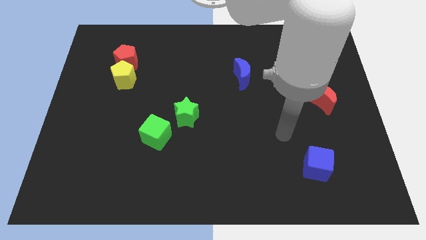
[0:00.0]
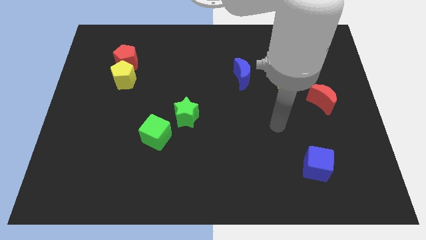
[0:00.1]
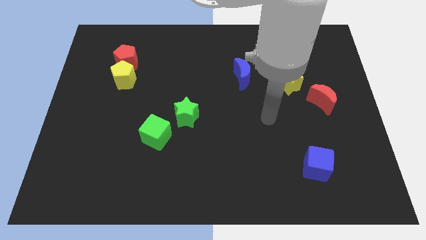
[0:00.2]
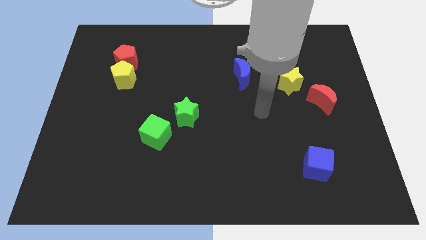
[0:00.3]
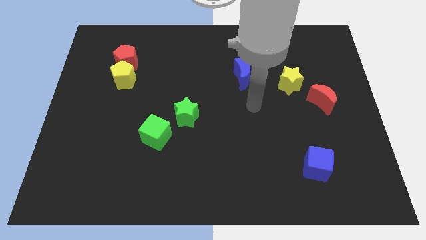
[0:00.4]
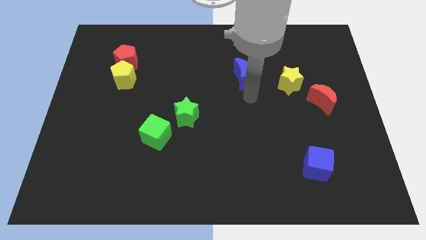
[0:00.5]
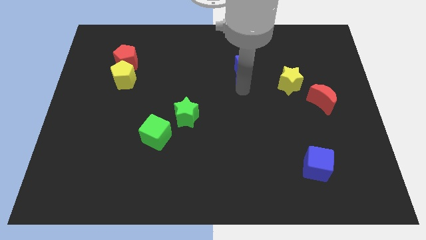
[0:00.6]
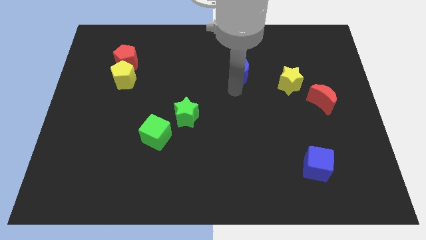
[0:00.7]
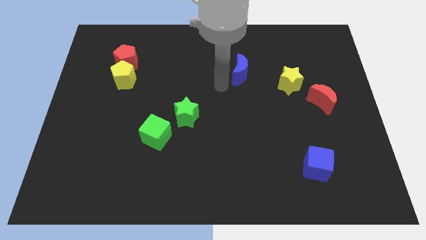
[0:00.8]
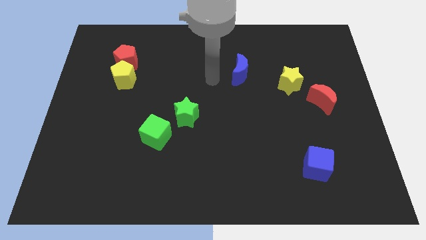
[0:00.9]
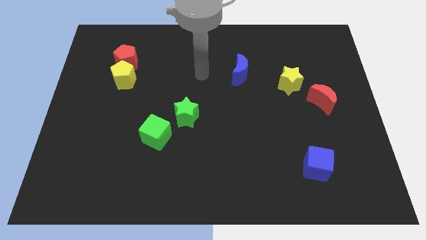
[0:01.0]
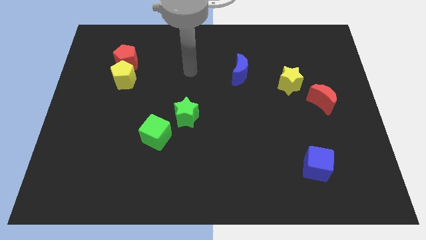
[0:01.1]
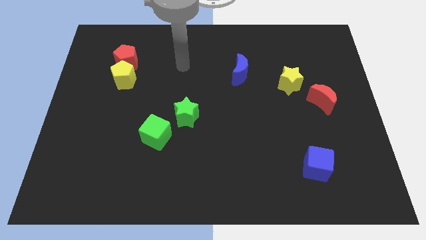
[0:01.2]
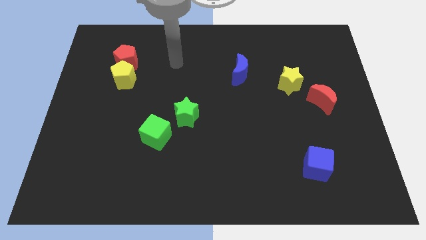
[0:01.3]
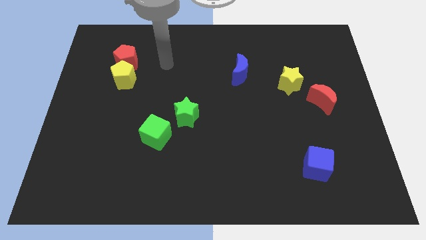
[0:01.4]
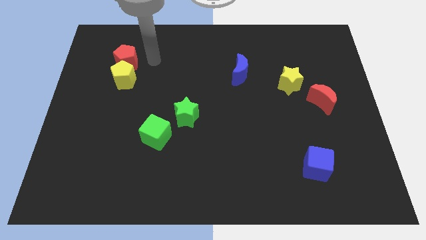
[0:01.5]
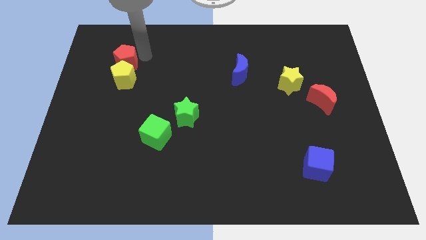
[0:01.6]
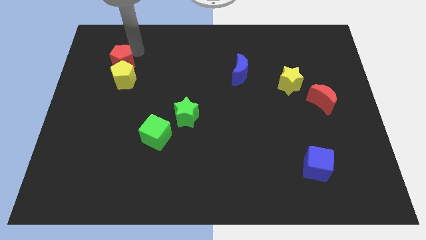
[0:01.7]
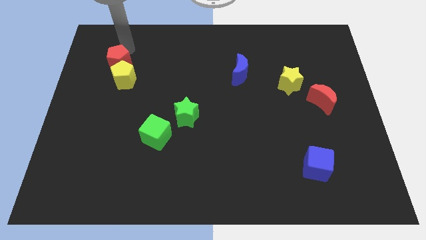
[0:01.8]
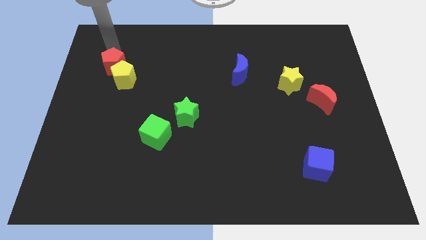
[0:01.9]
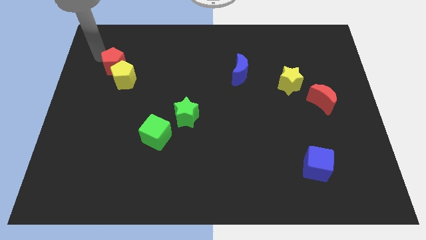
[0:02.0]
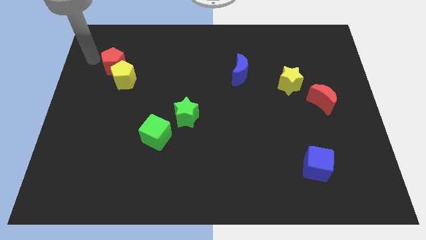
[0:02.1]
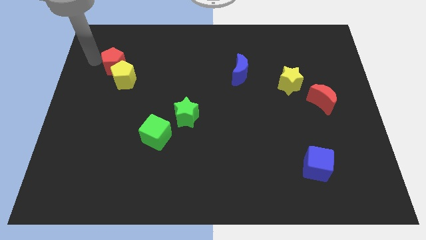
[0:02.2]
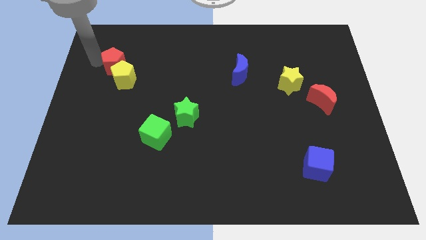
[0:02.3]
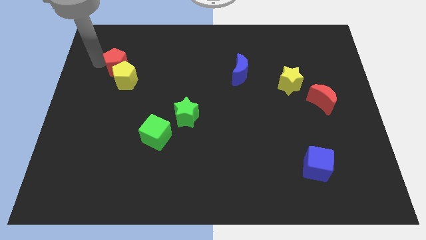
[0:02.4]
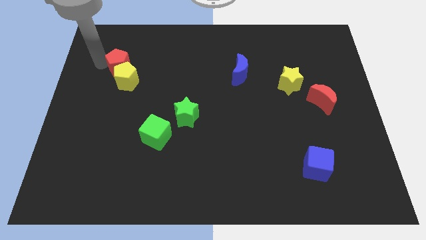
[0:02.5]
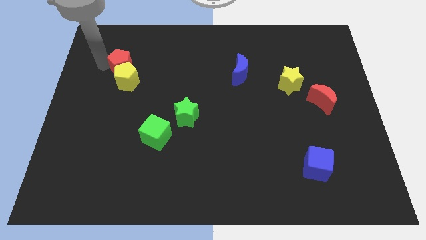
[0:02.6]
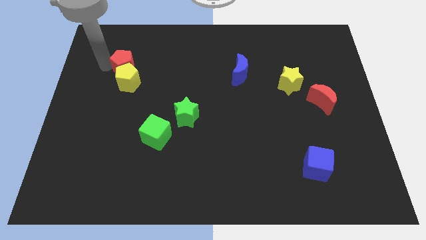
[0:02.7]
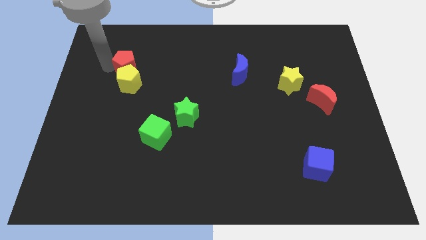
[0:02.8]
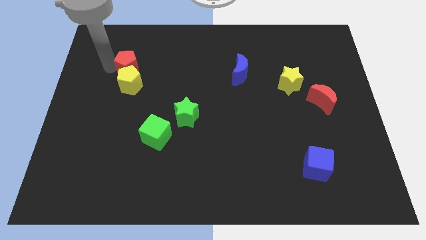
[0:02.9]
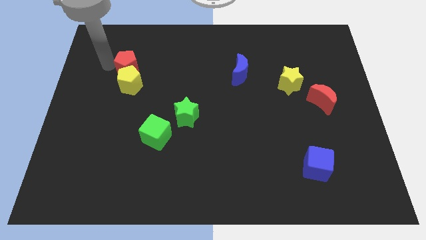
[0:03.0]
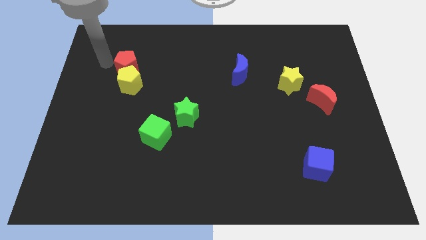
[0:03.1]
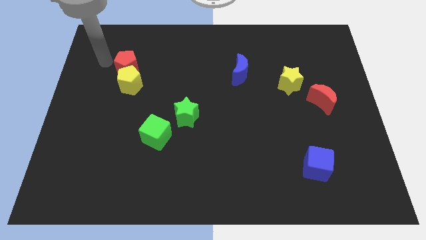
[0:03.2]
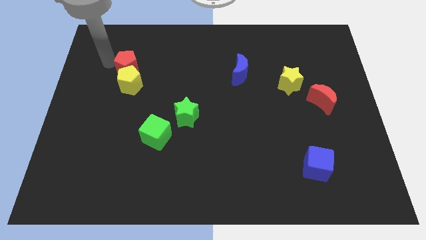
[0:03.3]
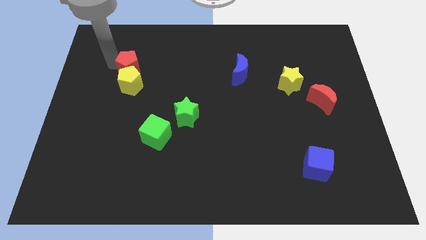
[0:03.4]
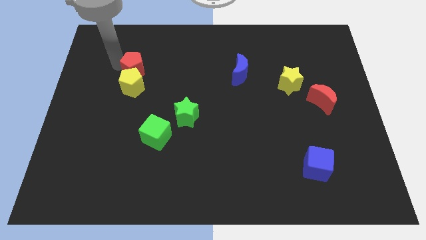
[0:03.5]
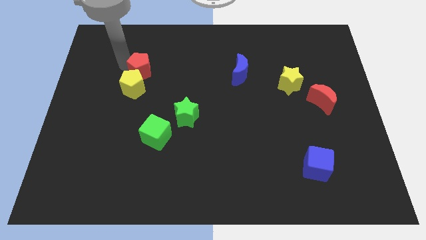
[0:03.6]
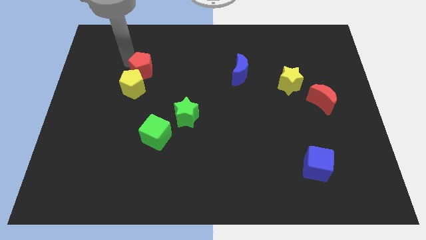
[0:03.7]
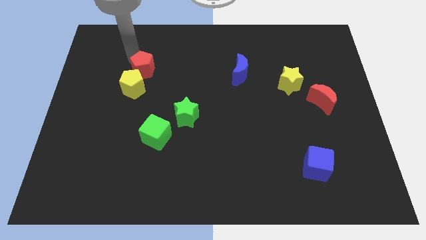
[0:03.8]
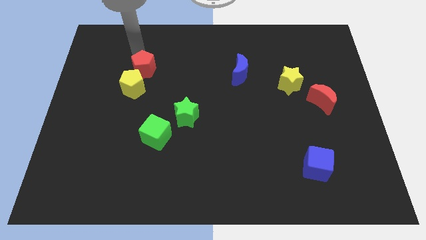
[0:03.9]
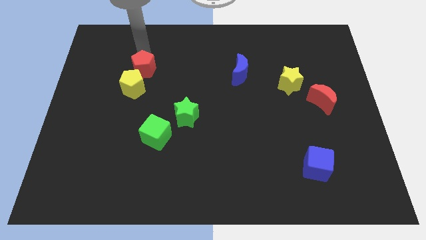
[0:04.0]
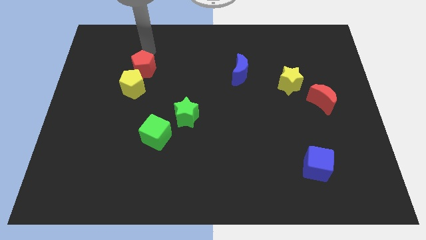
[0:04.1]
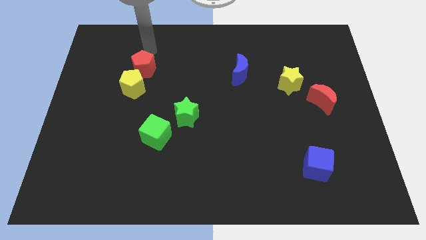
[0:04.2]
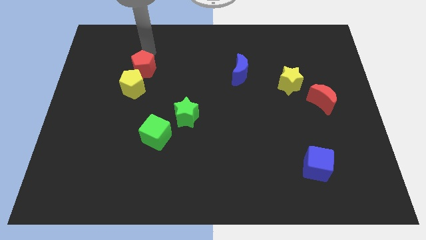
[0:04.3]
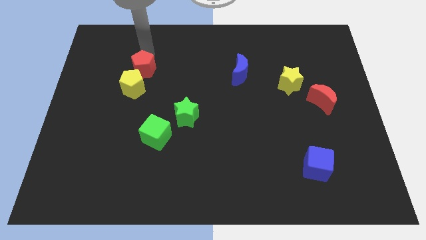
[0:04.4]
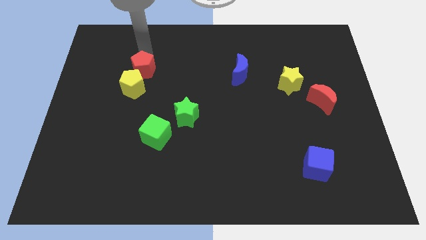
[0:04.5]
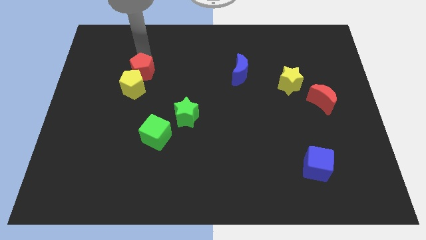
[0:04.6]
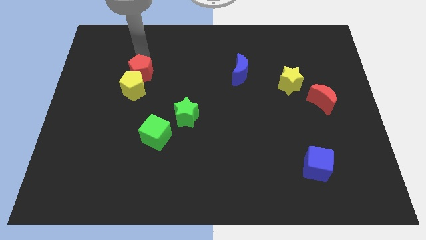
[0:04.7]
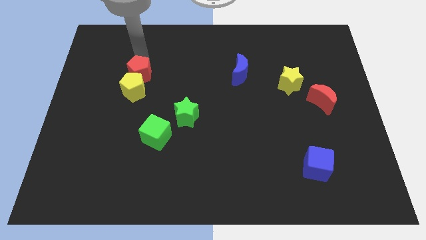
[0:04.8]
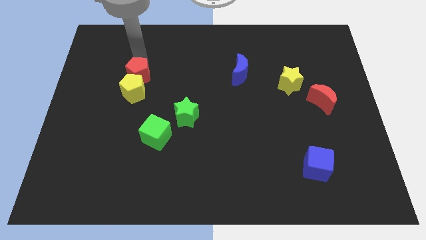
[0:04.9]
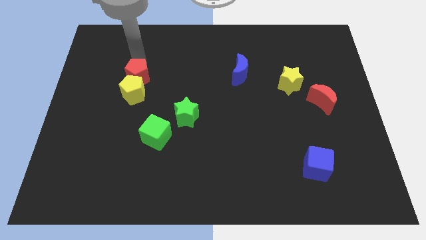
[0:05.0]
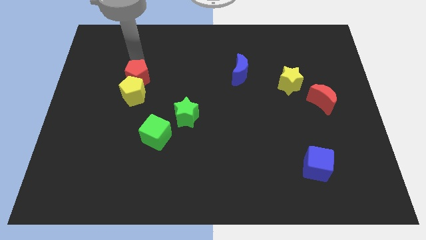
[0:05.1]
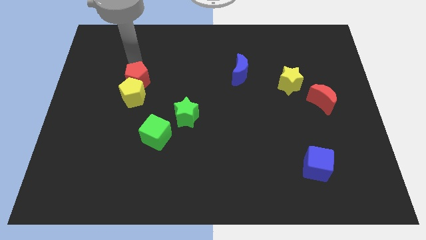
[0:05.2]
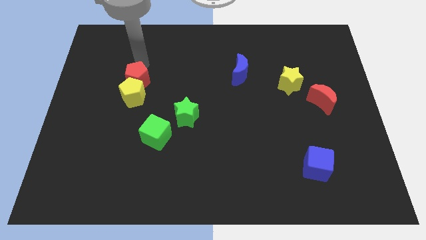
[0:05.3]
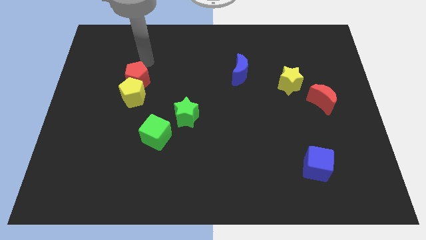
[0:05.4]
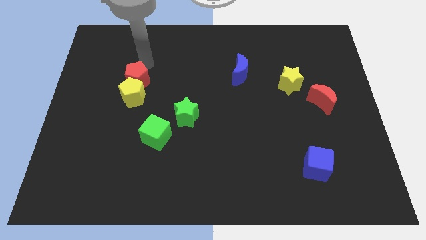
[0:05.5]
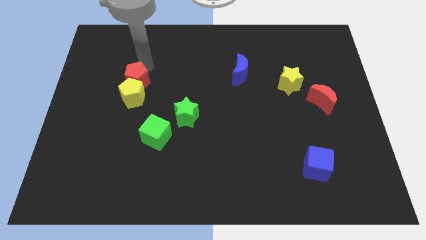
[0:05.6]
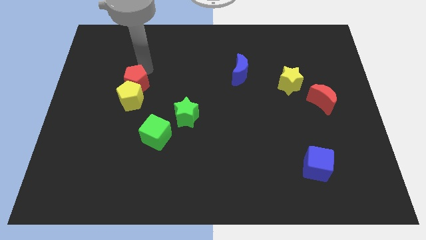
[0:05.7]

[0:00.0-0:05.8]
push the red pentagon a bit down

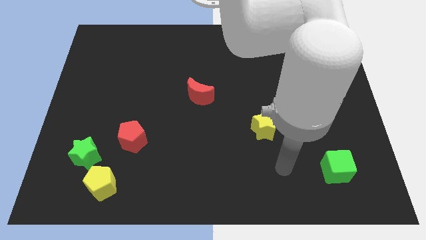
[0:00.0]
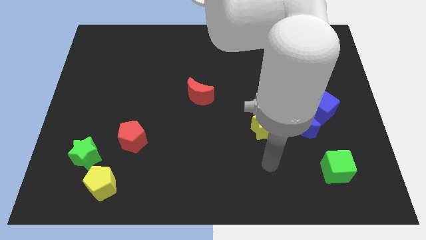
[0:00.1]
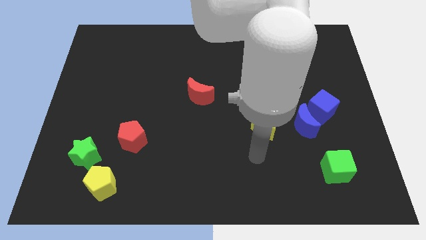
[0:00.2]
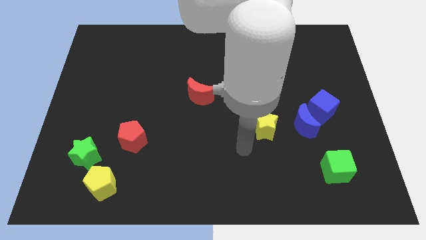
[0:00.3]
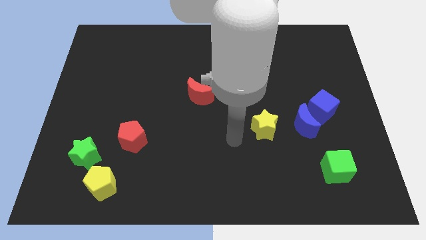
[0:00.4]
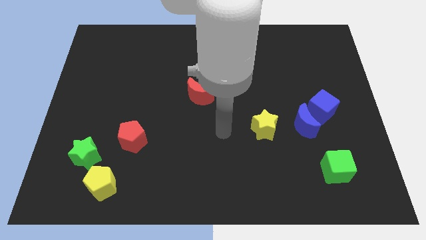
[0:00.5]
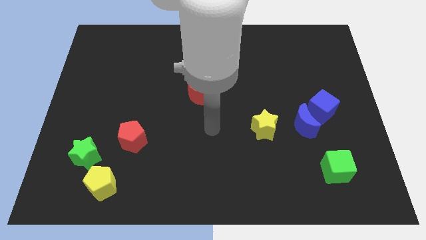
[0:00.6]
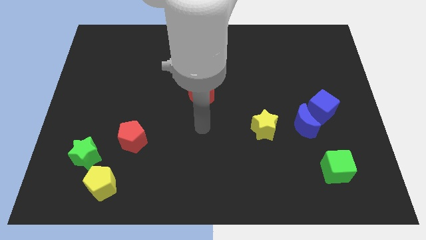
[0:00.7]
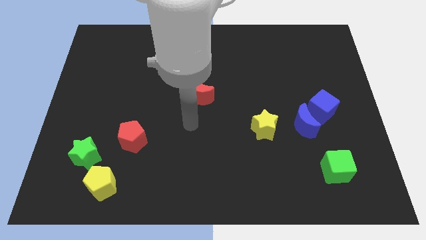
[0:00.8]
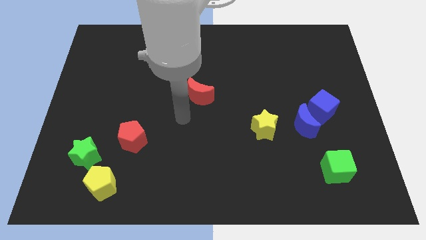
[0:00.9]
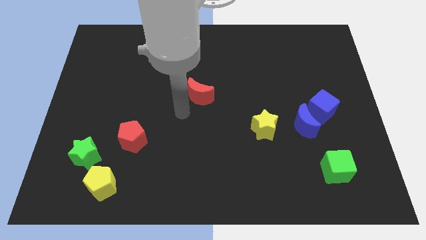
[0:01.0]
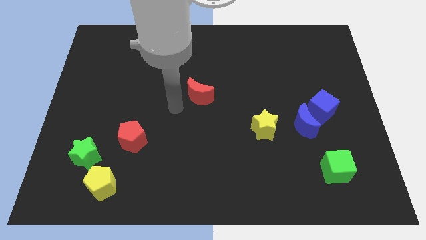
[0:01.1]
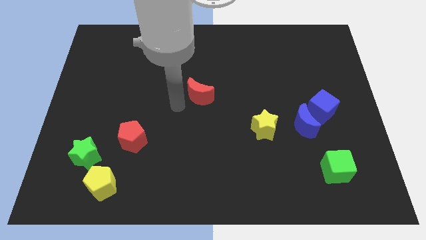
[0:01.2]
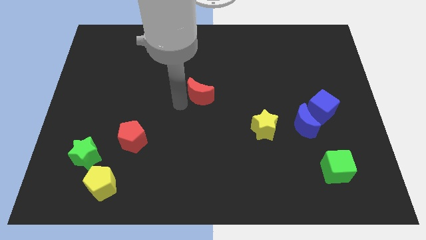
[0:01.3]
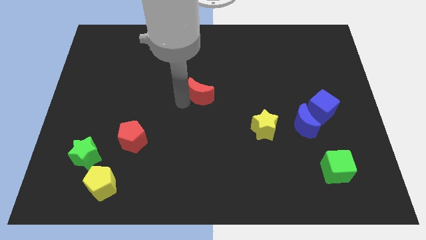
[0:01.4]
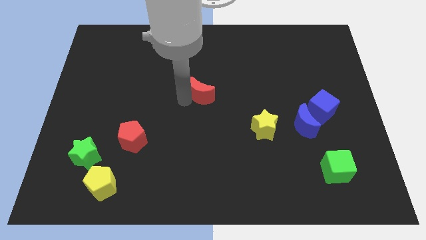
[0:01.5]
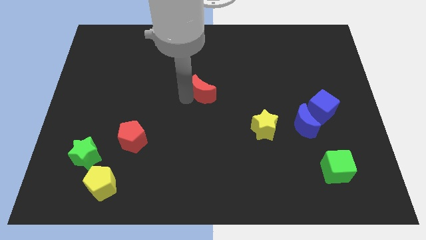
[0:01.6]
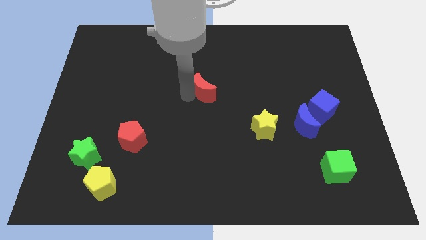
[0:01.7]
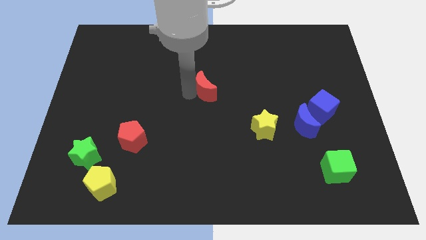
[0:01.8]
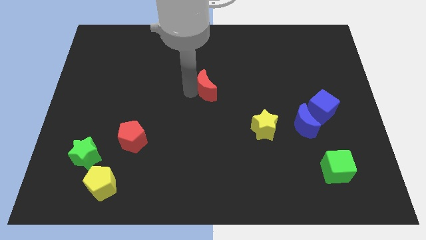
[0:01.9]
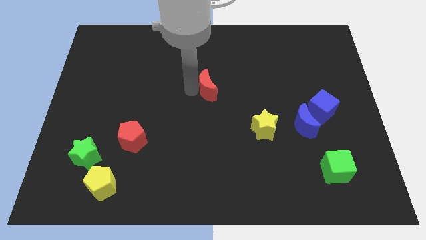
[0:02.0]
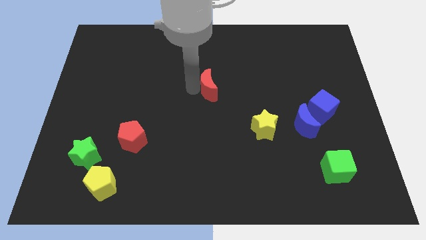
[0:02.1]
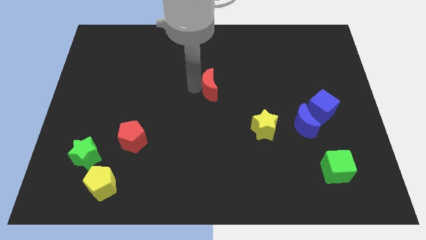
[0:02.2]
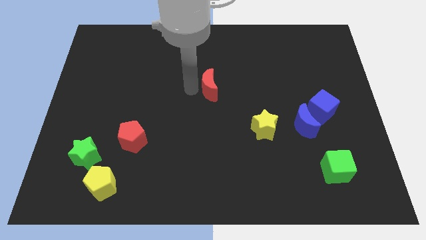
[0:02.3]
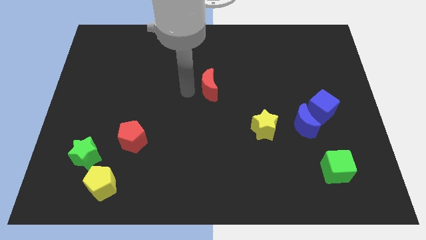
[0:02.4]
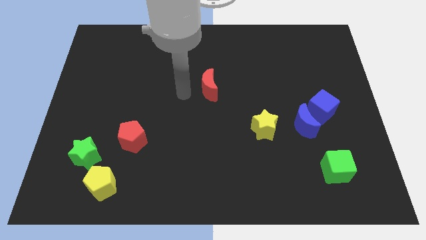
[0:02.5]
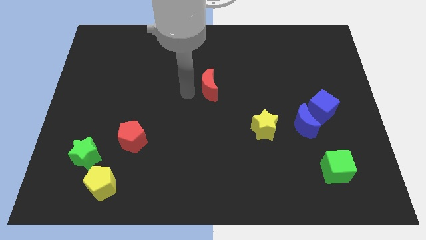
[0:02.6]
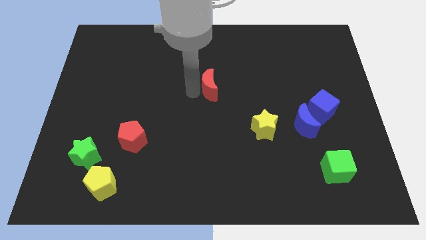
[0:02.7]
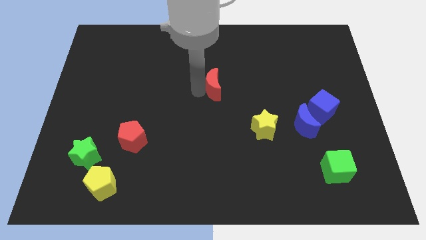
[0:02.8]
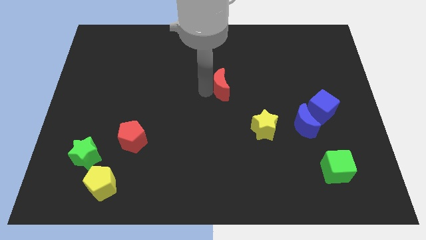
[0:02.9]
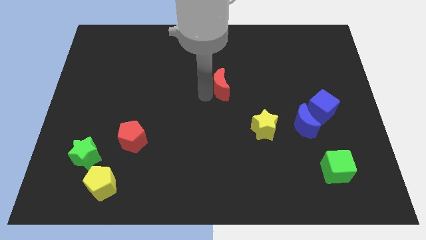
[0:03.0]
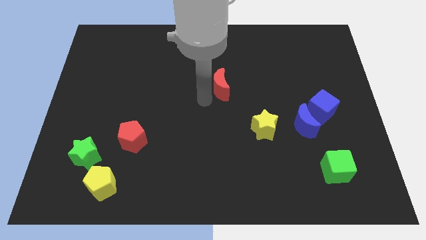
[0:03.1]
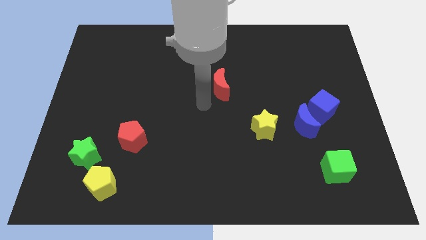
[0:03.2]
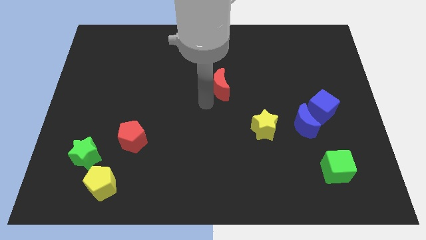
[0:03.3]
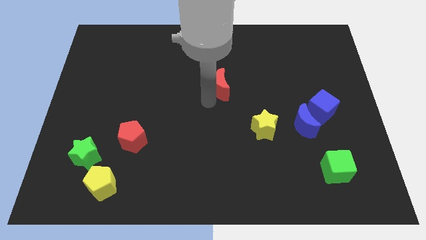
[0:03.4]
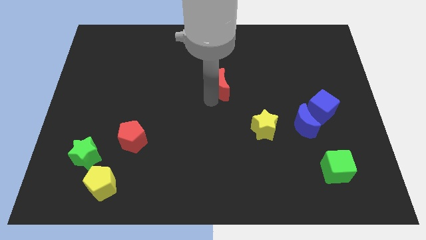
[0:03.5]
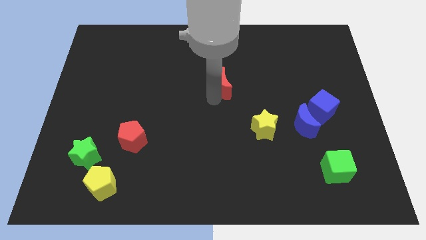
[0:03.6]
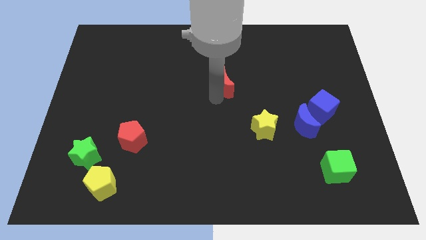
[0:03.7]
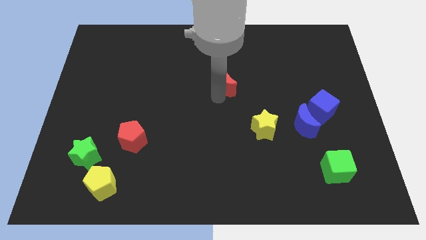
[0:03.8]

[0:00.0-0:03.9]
slightly move the red moon up and to the right diagonally
